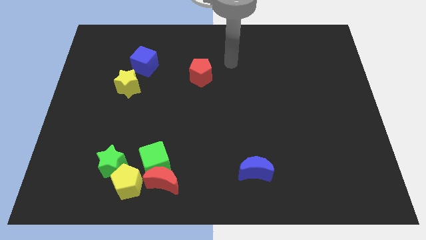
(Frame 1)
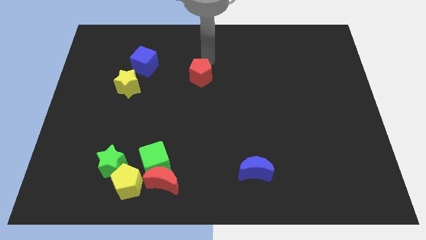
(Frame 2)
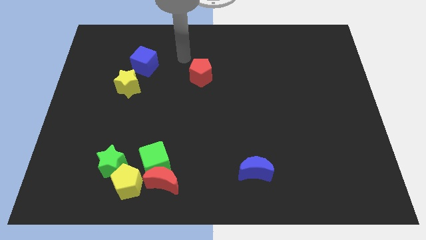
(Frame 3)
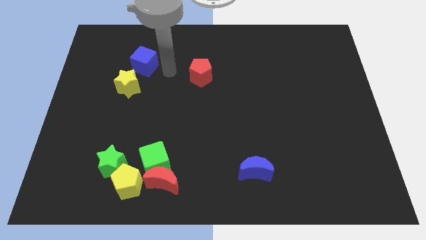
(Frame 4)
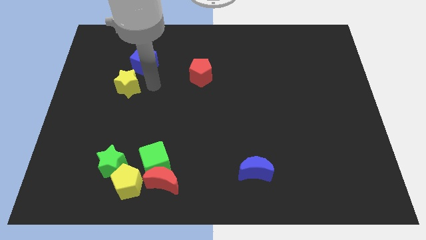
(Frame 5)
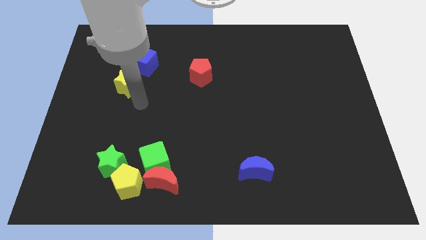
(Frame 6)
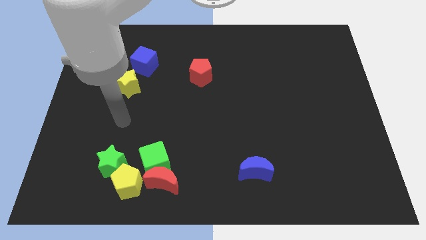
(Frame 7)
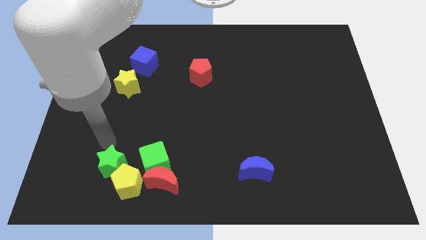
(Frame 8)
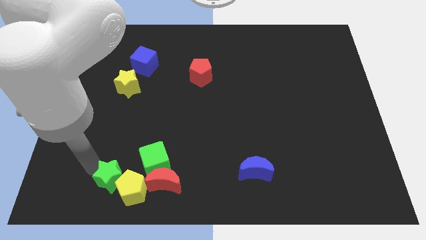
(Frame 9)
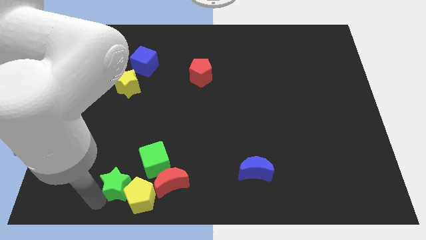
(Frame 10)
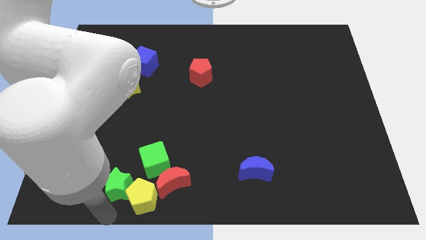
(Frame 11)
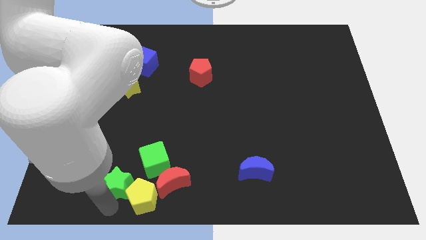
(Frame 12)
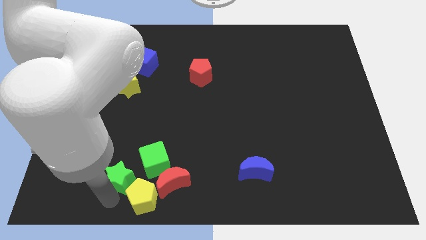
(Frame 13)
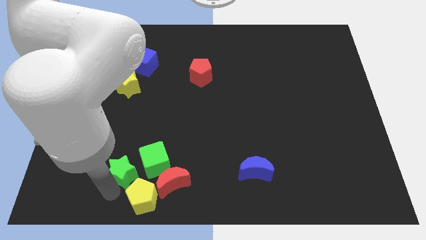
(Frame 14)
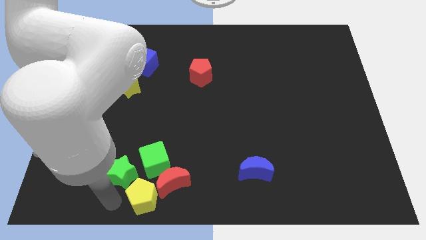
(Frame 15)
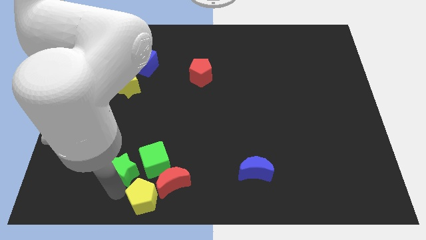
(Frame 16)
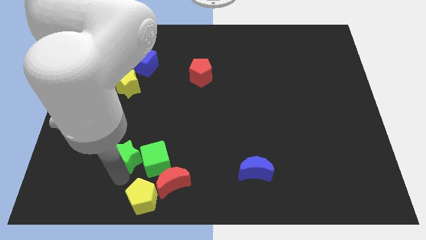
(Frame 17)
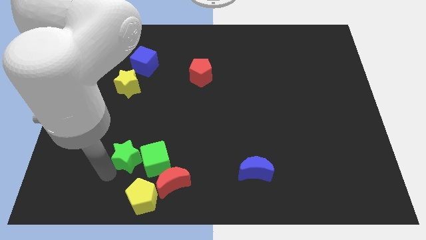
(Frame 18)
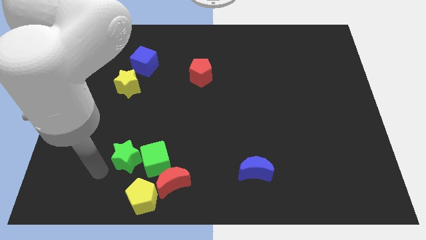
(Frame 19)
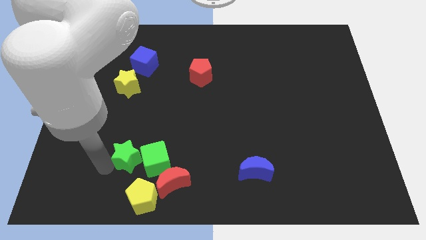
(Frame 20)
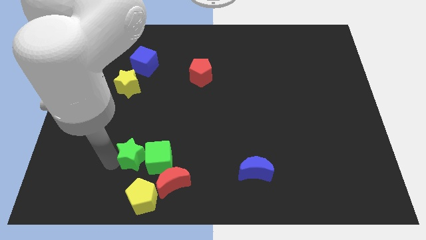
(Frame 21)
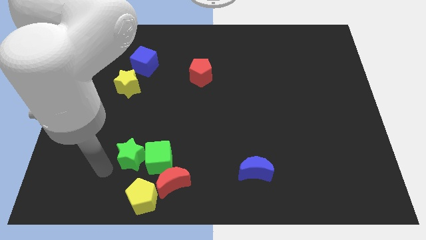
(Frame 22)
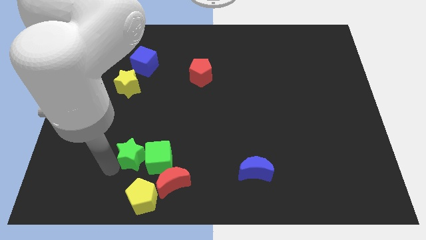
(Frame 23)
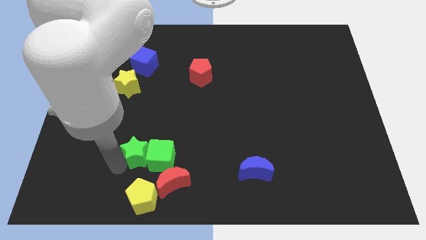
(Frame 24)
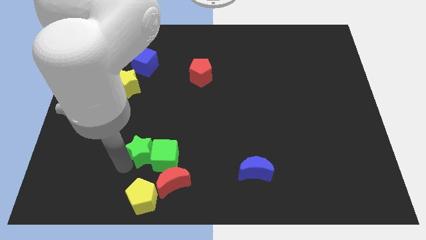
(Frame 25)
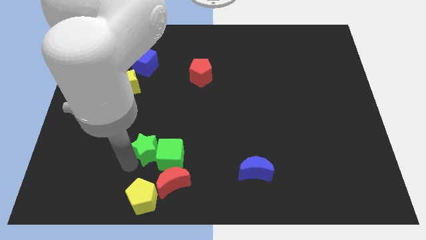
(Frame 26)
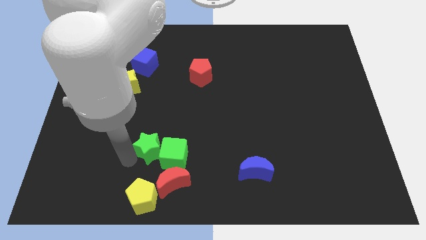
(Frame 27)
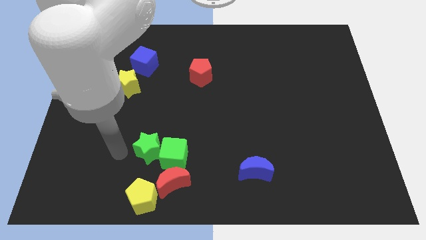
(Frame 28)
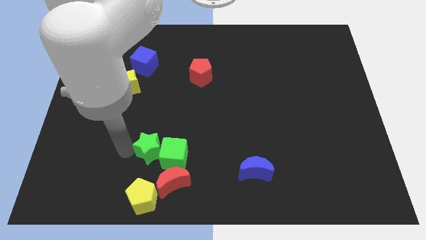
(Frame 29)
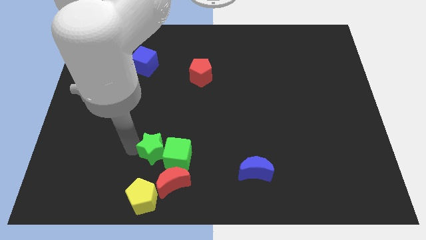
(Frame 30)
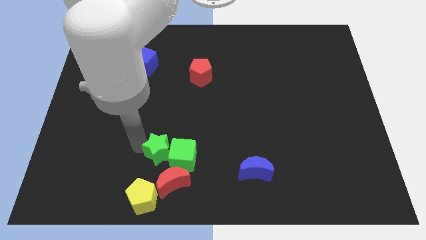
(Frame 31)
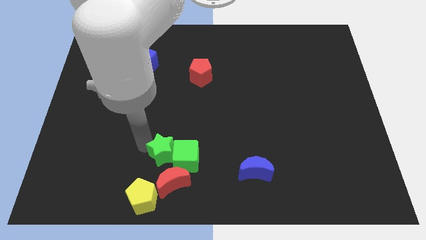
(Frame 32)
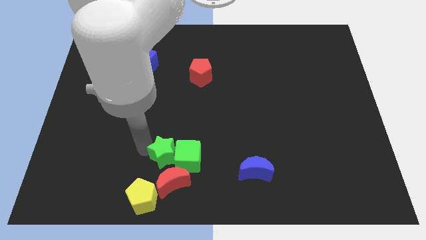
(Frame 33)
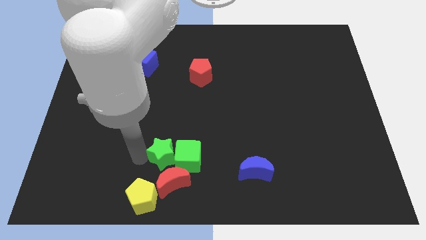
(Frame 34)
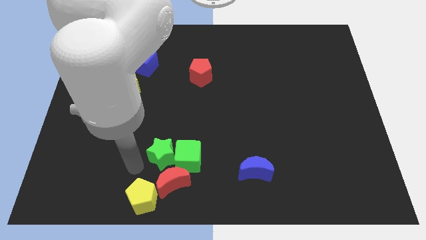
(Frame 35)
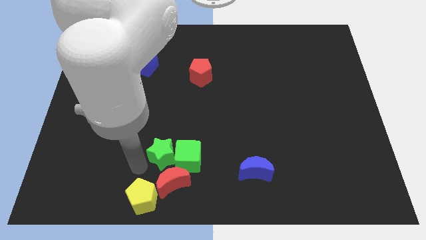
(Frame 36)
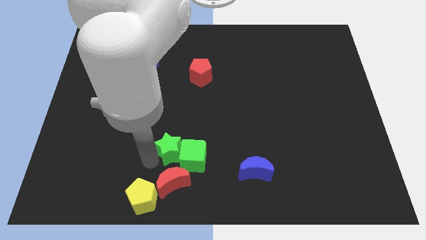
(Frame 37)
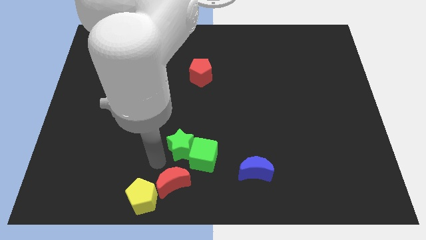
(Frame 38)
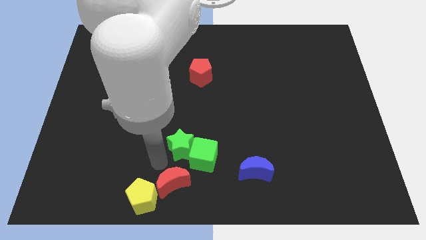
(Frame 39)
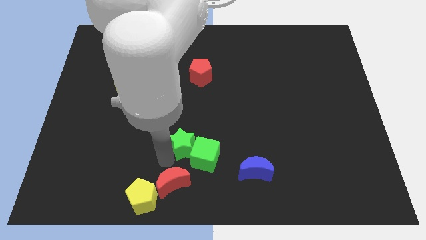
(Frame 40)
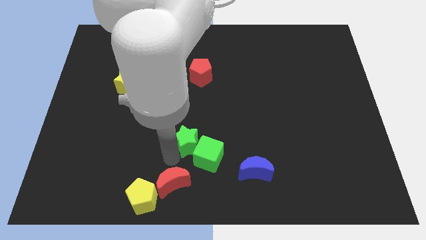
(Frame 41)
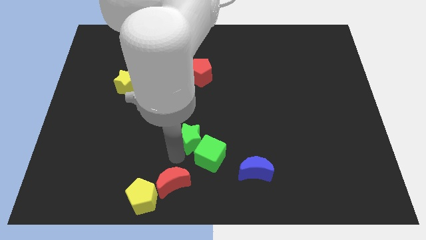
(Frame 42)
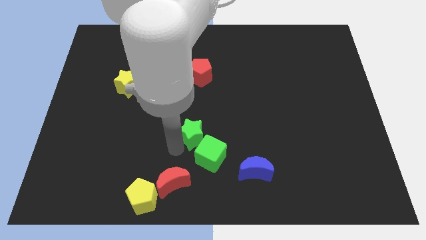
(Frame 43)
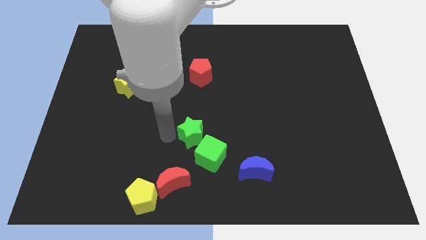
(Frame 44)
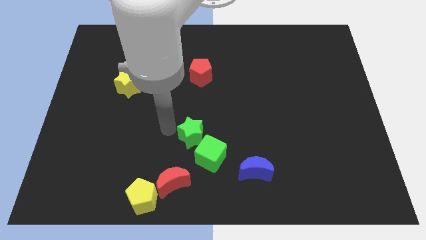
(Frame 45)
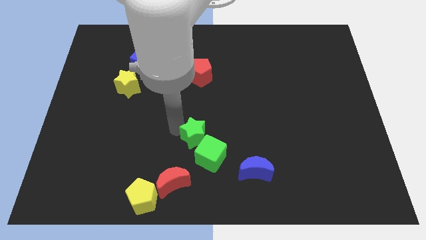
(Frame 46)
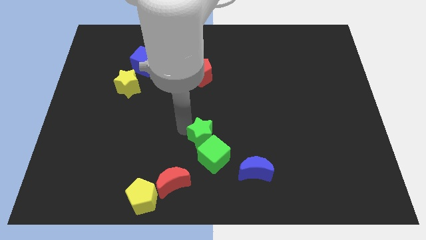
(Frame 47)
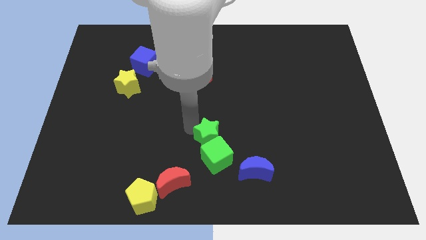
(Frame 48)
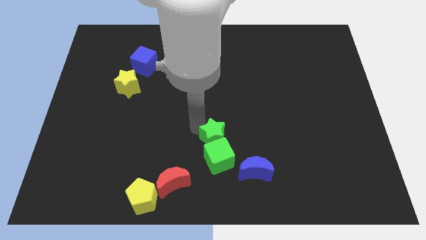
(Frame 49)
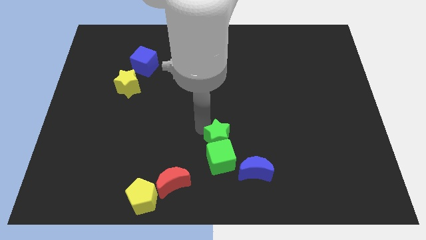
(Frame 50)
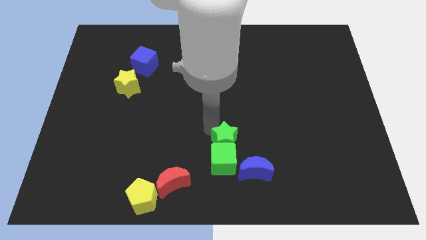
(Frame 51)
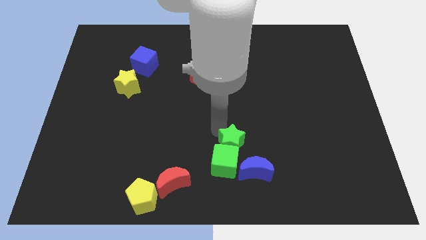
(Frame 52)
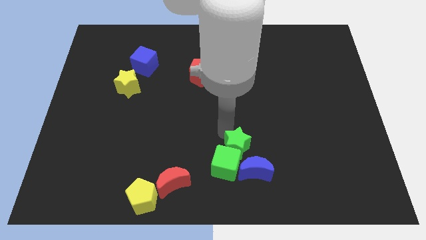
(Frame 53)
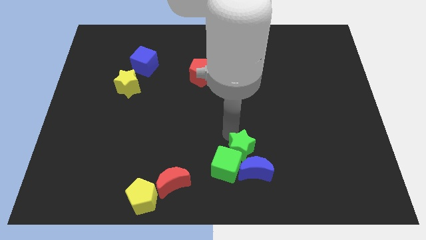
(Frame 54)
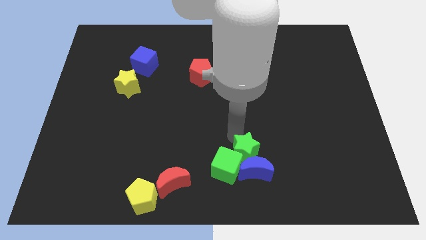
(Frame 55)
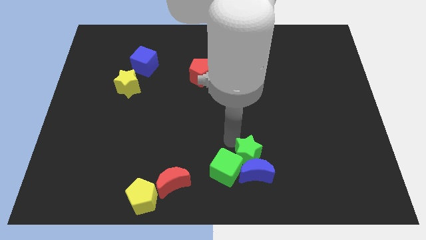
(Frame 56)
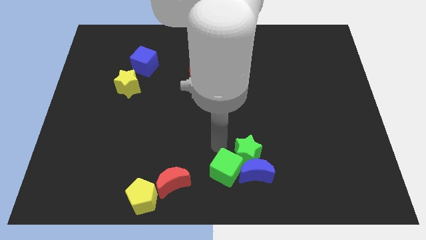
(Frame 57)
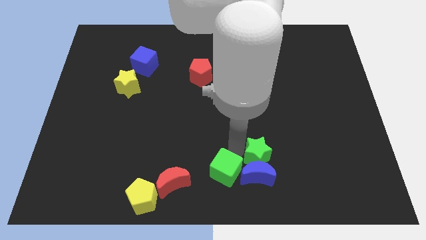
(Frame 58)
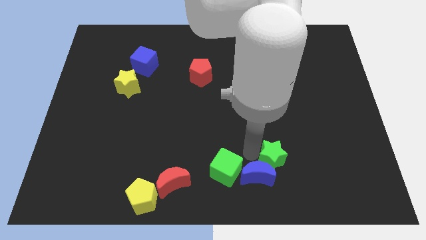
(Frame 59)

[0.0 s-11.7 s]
move the green star just right of the blue moon

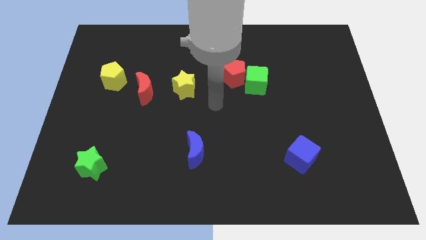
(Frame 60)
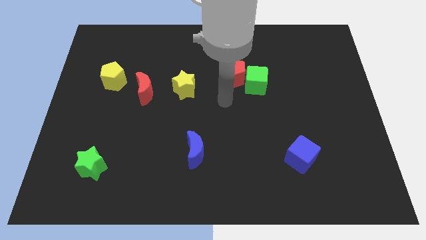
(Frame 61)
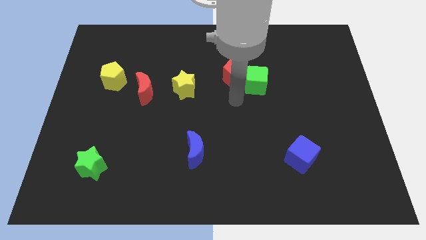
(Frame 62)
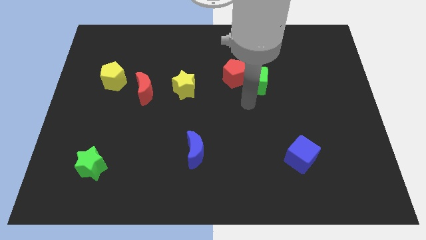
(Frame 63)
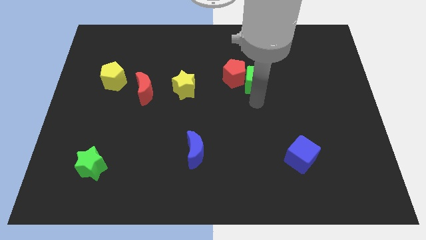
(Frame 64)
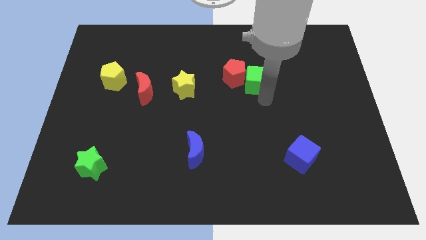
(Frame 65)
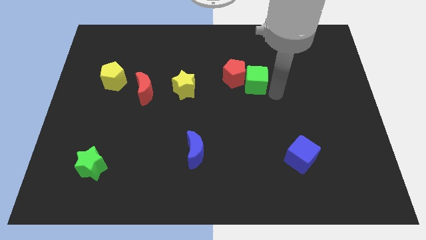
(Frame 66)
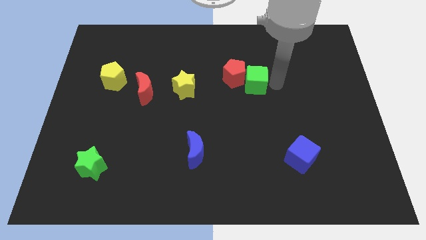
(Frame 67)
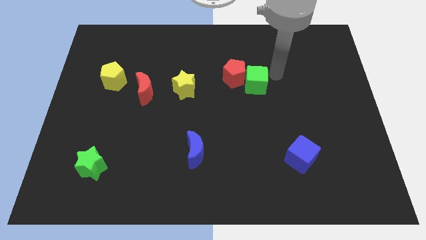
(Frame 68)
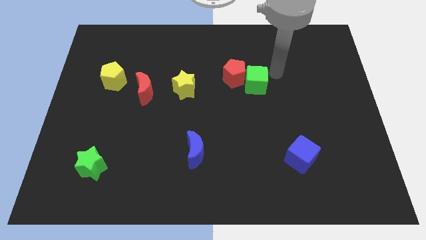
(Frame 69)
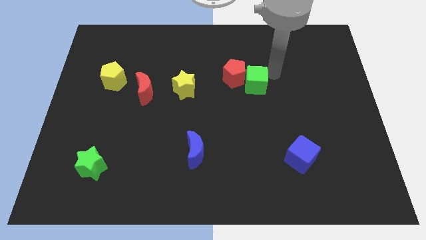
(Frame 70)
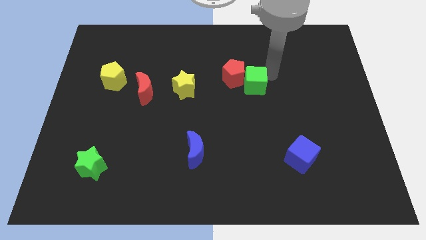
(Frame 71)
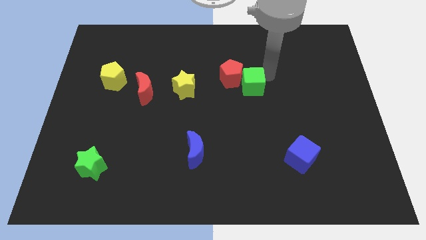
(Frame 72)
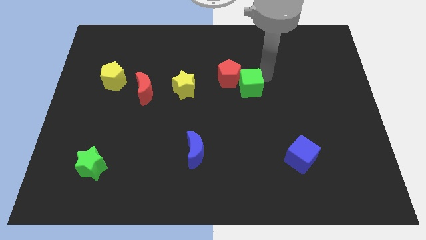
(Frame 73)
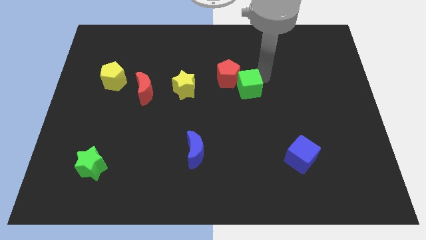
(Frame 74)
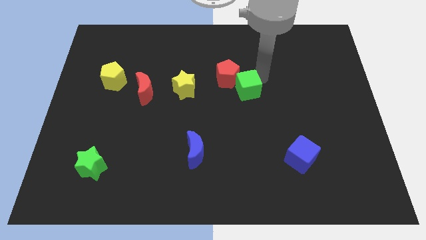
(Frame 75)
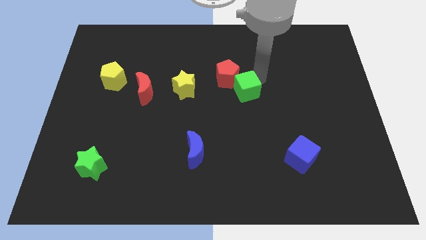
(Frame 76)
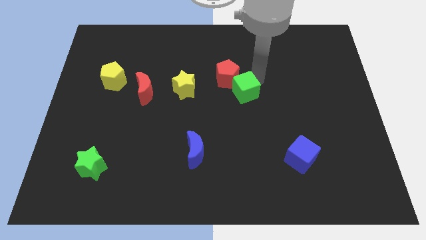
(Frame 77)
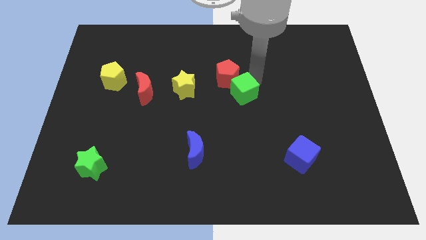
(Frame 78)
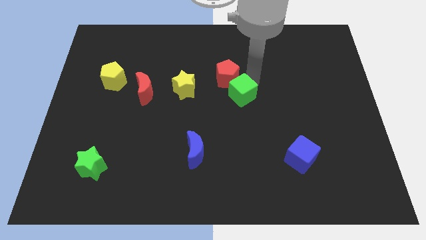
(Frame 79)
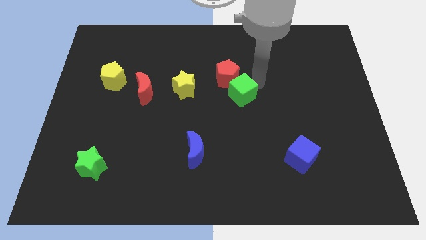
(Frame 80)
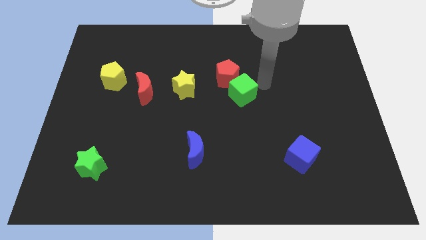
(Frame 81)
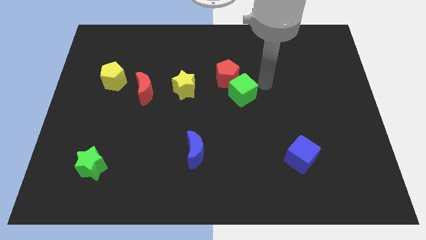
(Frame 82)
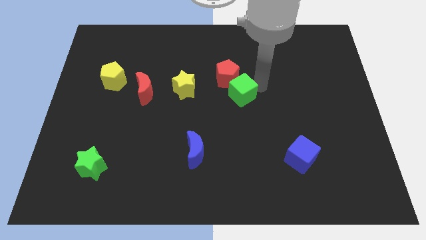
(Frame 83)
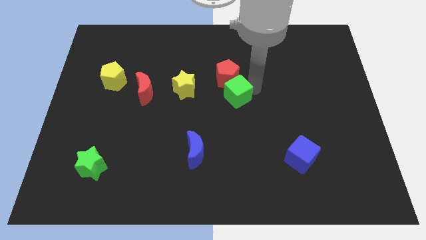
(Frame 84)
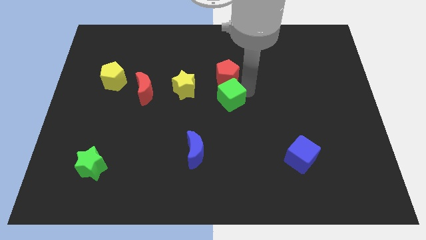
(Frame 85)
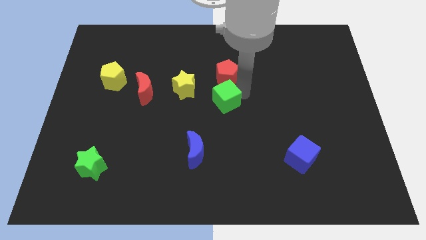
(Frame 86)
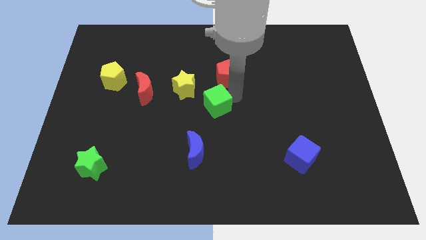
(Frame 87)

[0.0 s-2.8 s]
move the green cube to the top of the blue moon
